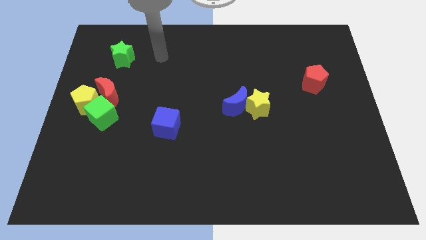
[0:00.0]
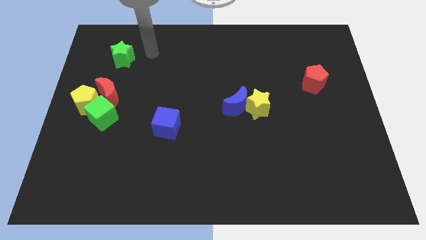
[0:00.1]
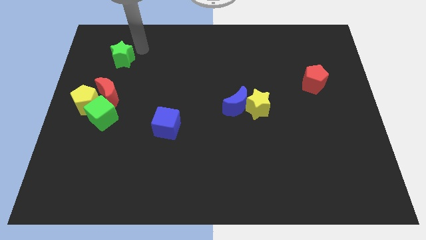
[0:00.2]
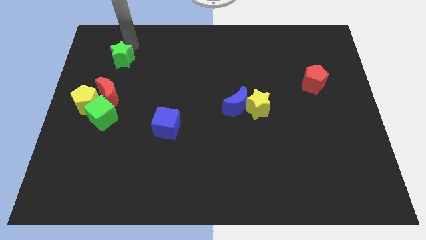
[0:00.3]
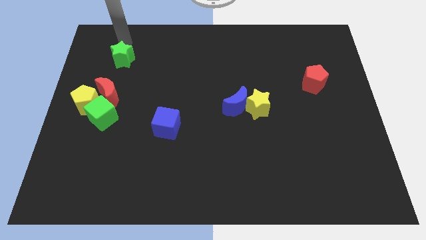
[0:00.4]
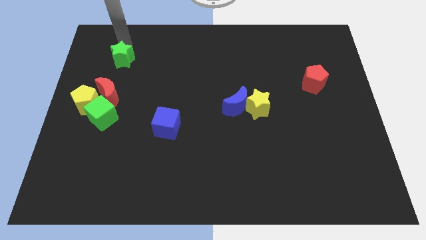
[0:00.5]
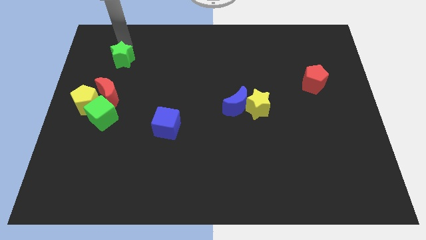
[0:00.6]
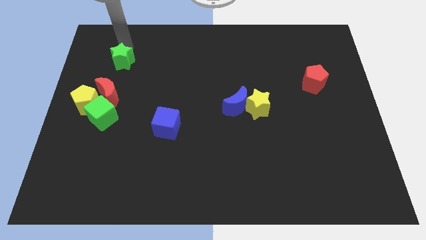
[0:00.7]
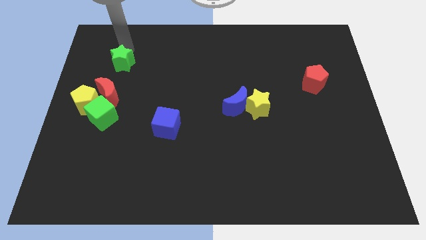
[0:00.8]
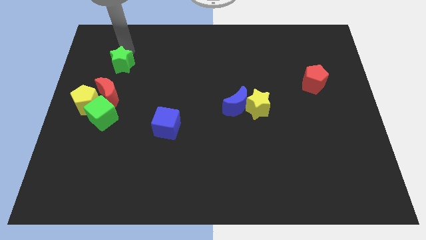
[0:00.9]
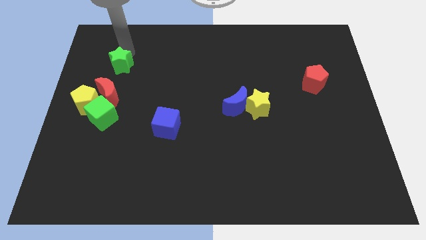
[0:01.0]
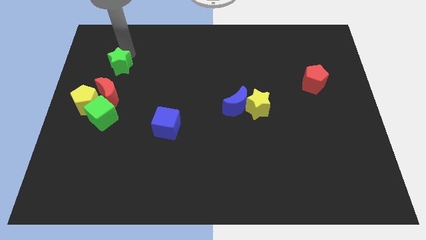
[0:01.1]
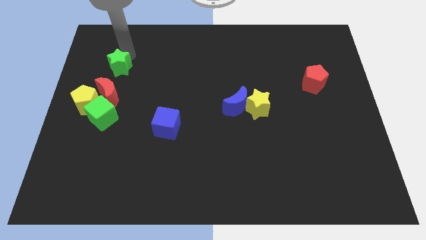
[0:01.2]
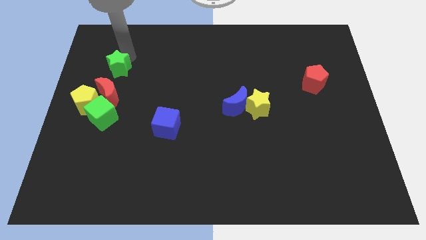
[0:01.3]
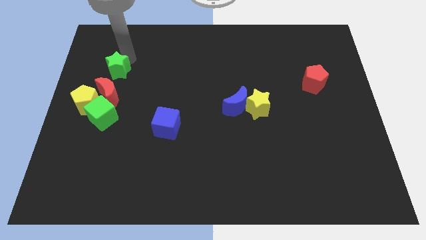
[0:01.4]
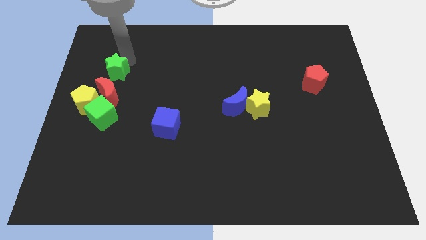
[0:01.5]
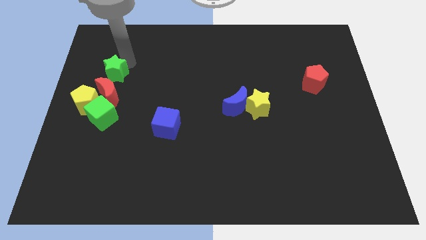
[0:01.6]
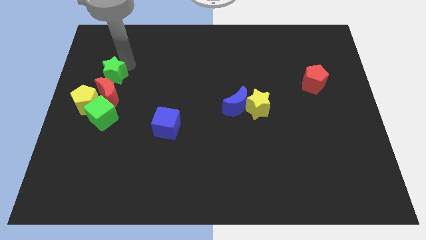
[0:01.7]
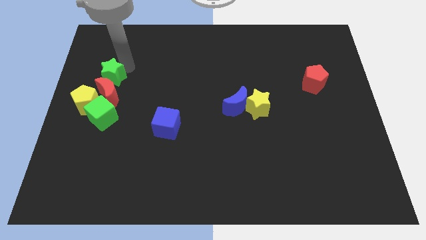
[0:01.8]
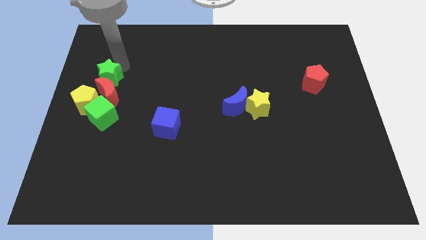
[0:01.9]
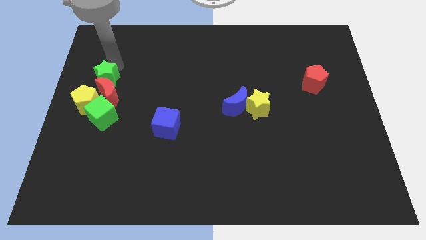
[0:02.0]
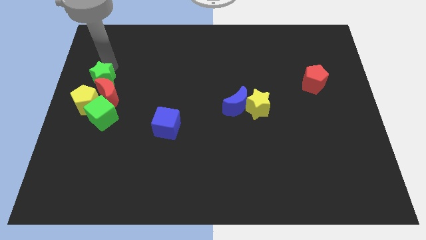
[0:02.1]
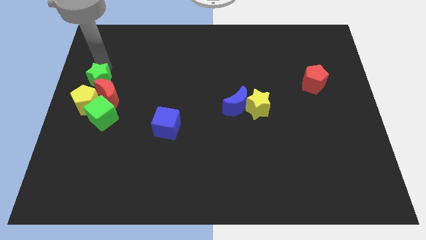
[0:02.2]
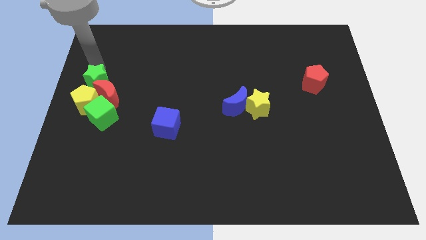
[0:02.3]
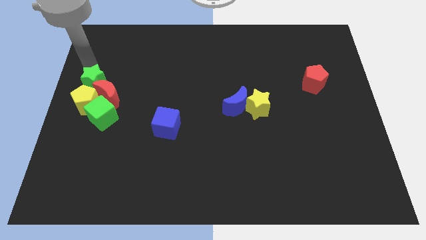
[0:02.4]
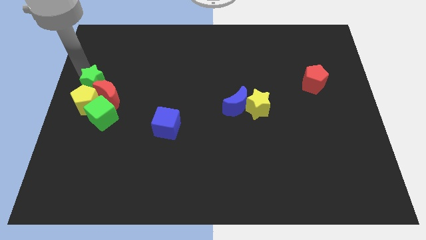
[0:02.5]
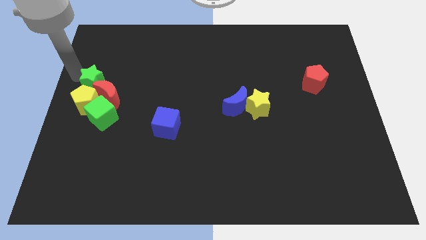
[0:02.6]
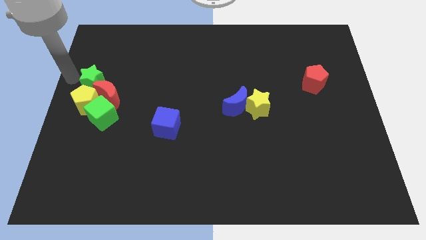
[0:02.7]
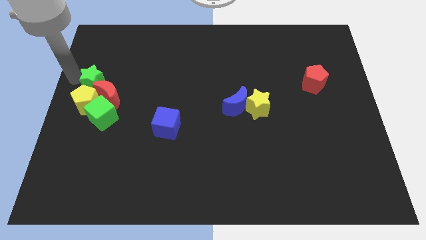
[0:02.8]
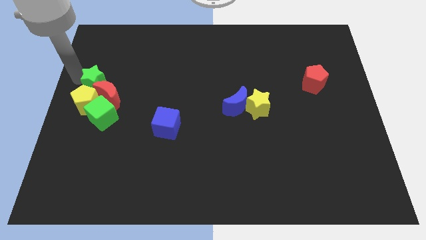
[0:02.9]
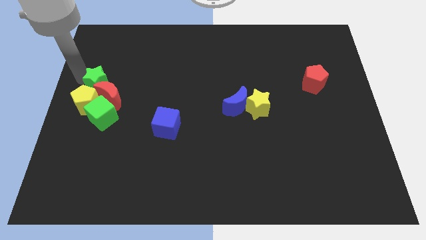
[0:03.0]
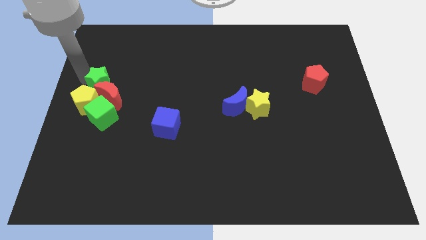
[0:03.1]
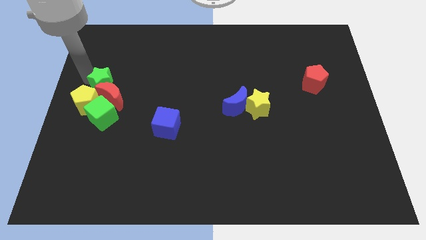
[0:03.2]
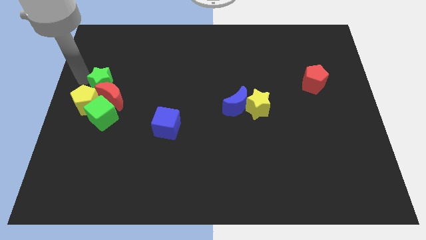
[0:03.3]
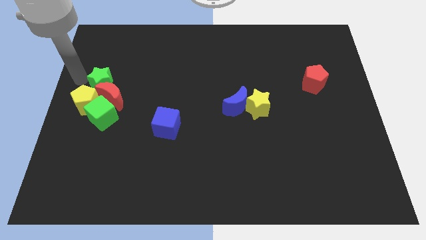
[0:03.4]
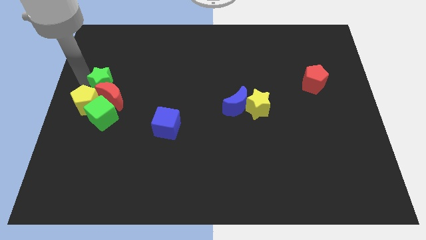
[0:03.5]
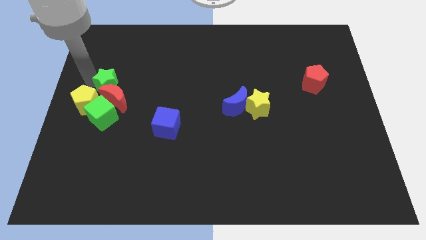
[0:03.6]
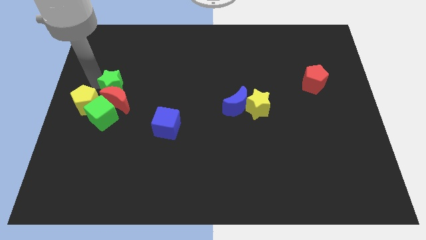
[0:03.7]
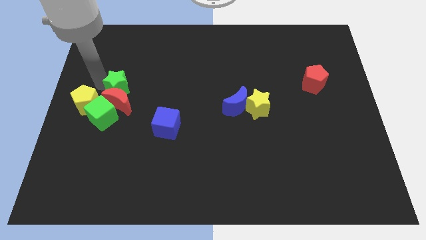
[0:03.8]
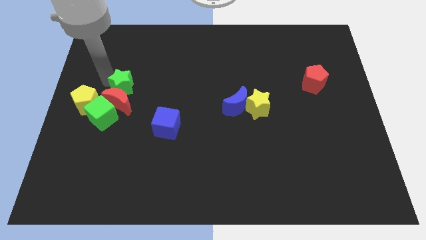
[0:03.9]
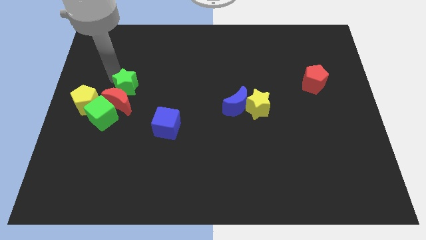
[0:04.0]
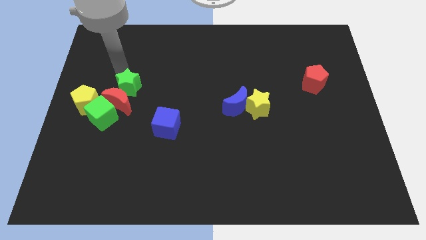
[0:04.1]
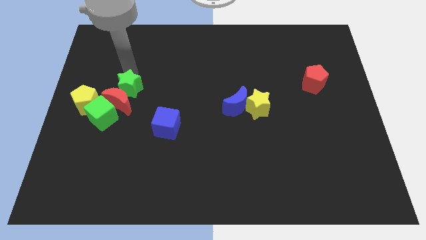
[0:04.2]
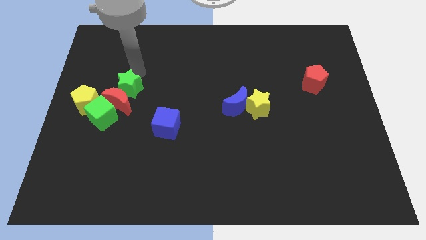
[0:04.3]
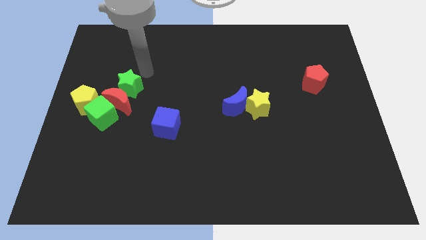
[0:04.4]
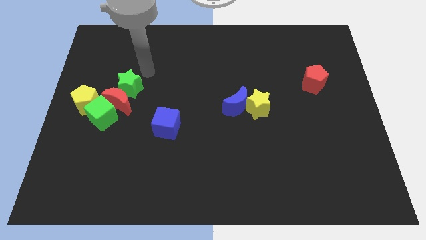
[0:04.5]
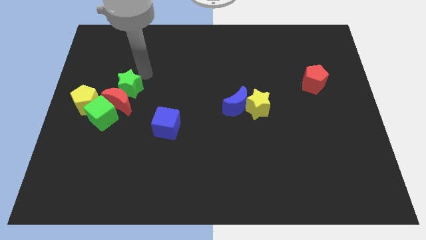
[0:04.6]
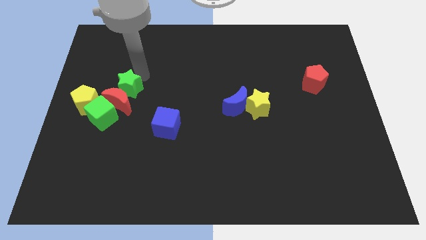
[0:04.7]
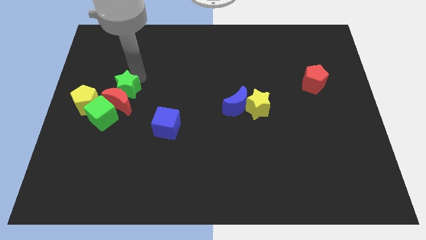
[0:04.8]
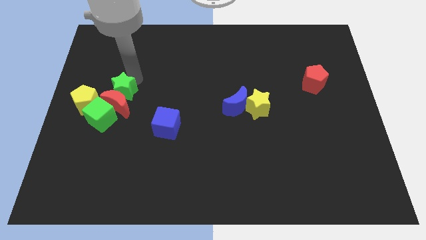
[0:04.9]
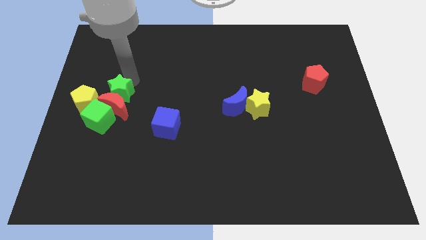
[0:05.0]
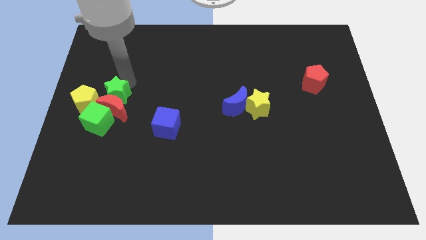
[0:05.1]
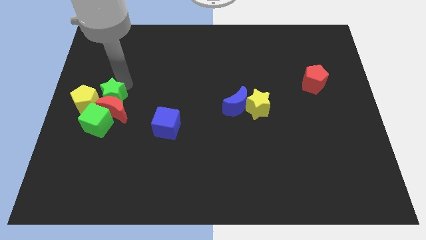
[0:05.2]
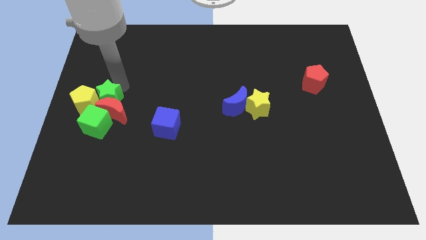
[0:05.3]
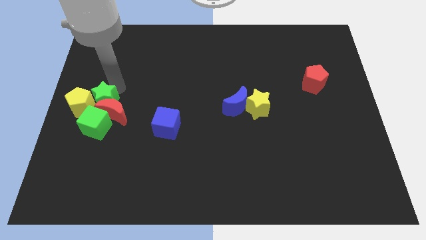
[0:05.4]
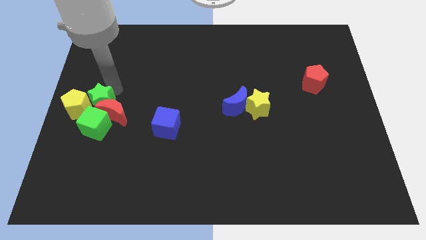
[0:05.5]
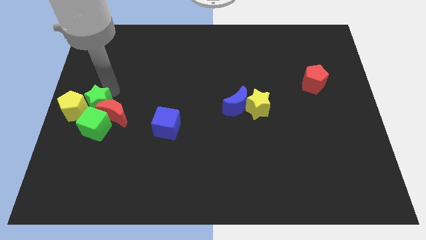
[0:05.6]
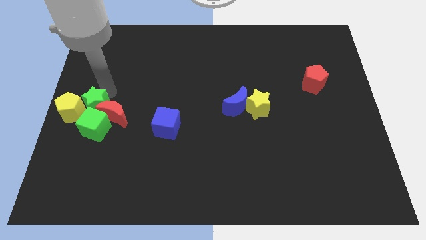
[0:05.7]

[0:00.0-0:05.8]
push the green star next to the green cube

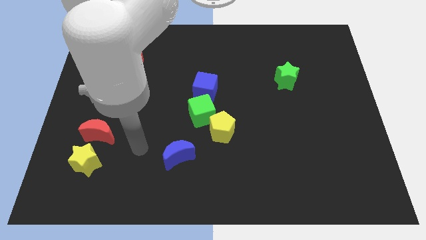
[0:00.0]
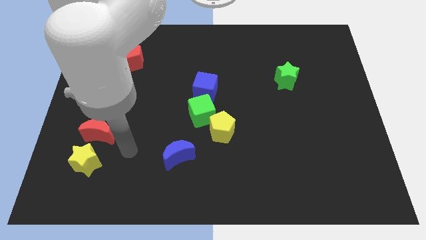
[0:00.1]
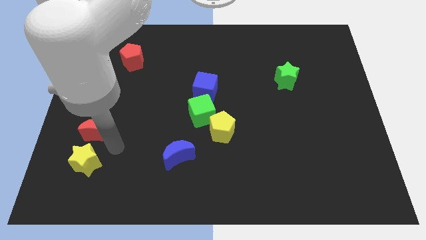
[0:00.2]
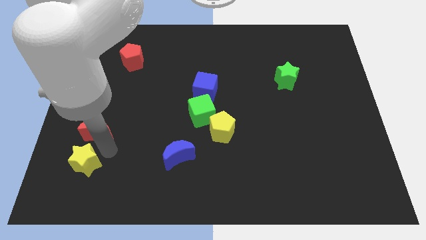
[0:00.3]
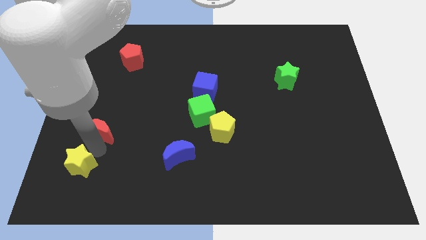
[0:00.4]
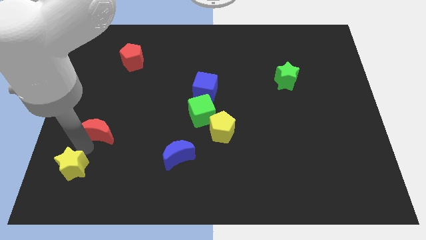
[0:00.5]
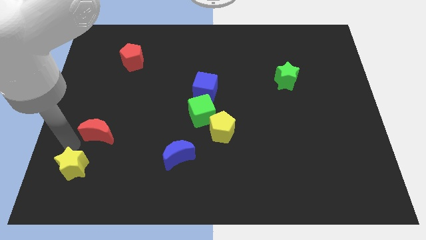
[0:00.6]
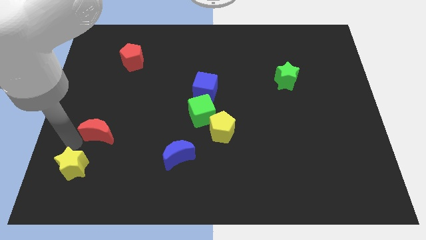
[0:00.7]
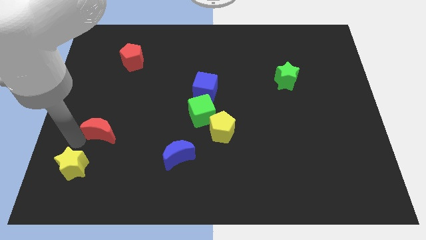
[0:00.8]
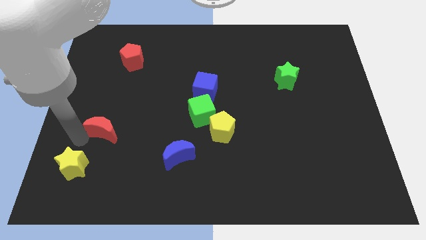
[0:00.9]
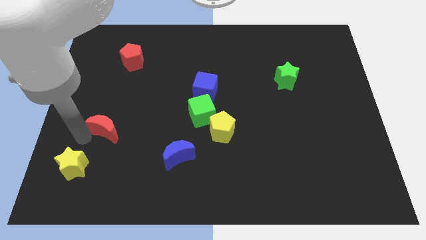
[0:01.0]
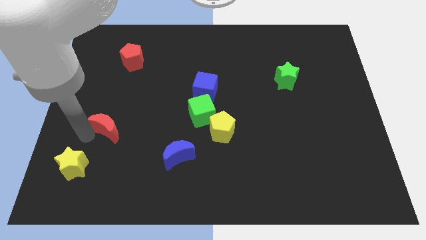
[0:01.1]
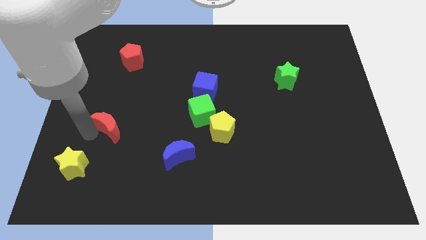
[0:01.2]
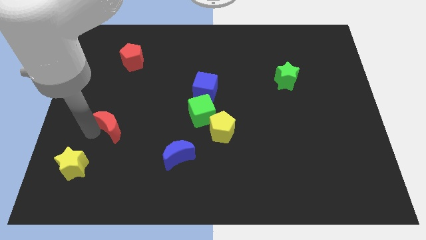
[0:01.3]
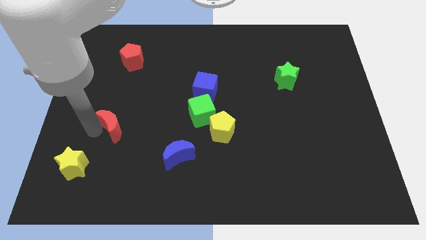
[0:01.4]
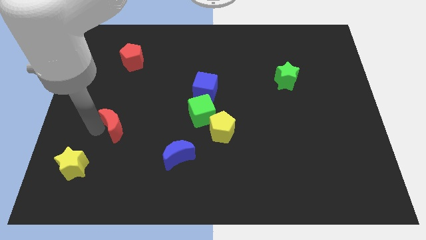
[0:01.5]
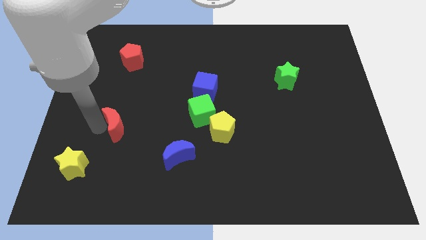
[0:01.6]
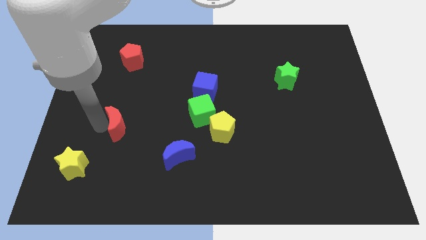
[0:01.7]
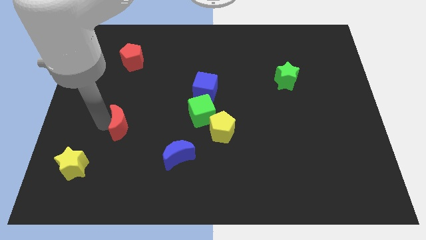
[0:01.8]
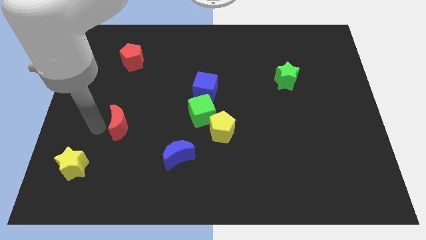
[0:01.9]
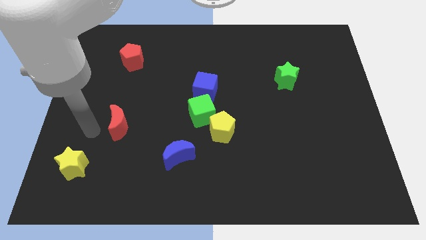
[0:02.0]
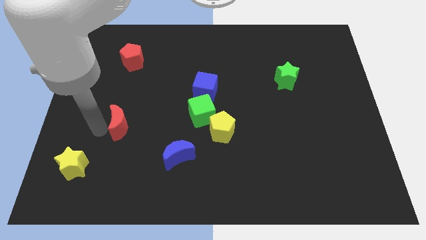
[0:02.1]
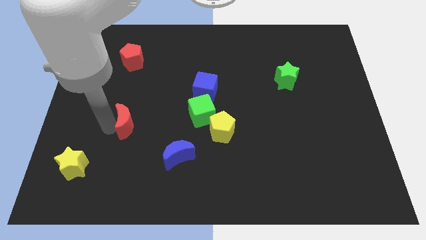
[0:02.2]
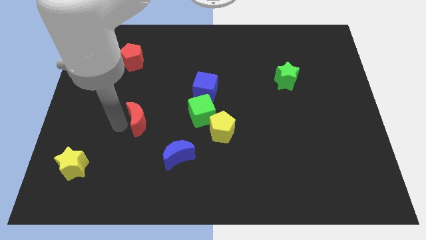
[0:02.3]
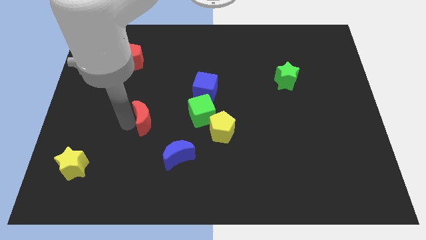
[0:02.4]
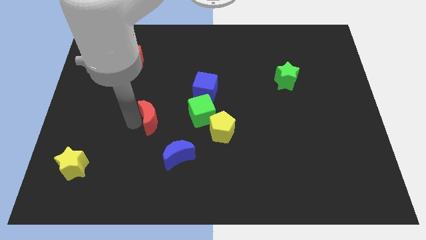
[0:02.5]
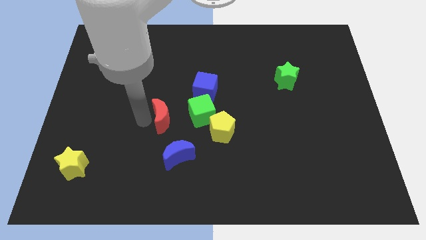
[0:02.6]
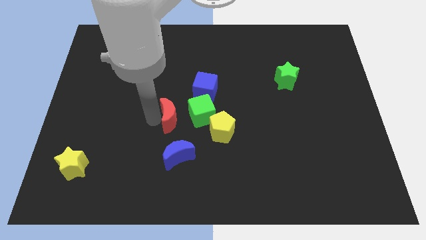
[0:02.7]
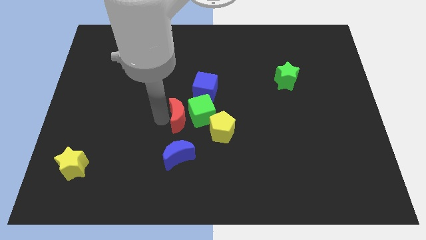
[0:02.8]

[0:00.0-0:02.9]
push the red moon next to the green cube

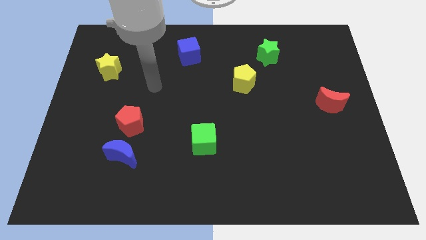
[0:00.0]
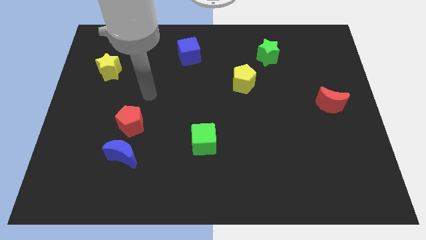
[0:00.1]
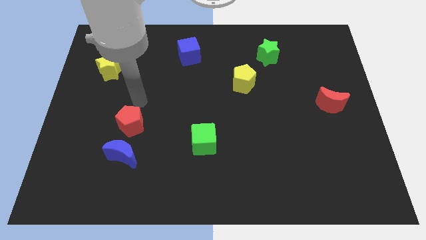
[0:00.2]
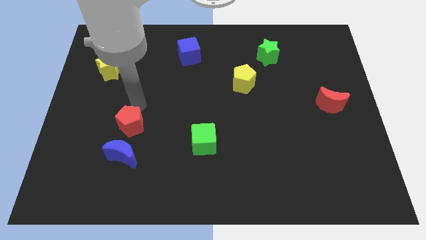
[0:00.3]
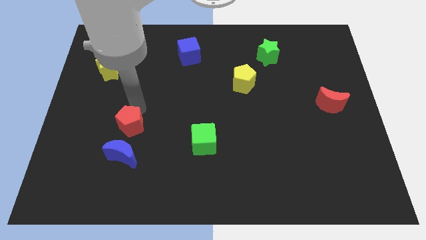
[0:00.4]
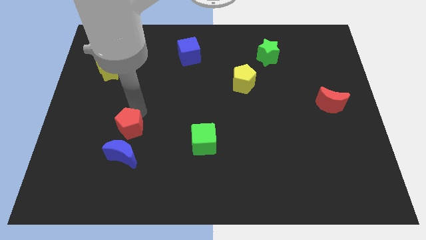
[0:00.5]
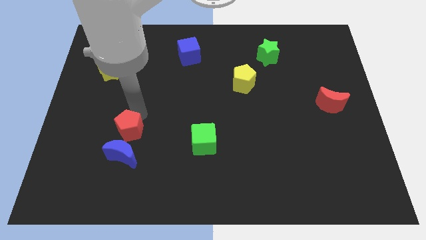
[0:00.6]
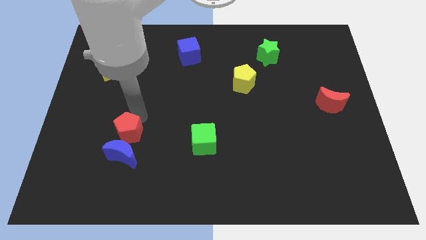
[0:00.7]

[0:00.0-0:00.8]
move the red pentagon next to the blue moon
